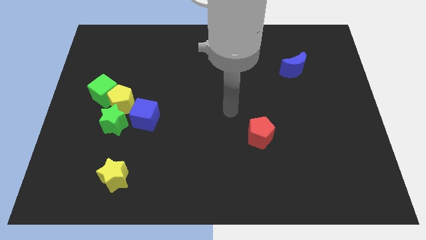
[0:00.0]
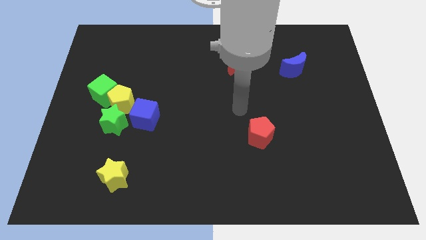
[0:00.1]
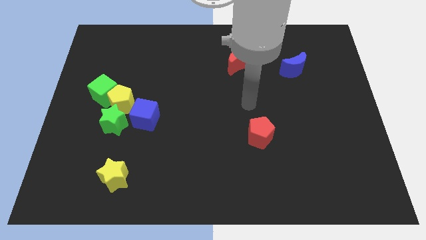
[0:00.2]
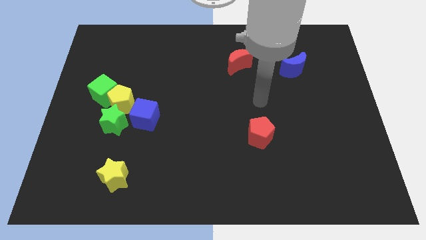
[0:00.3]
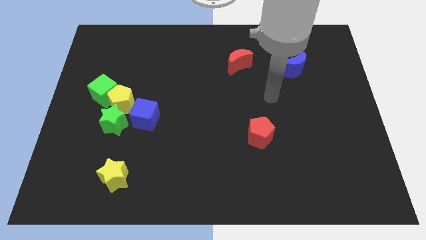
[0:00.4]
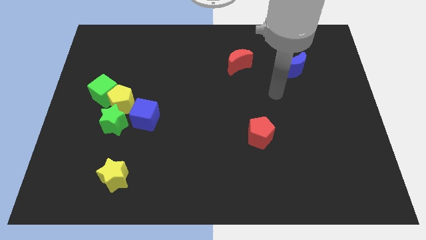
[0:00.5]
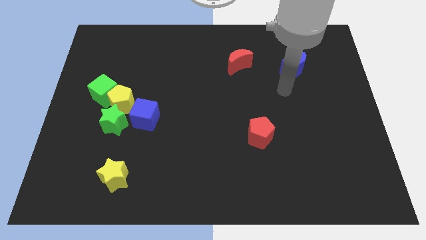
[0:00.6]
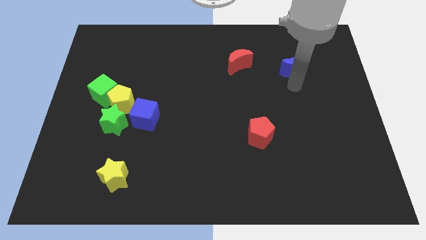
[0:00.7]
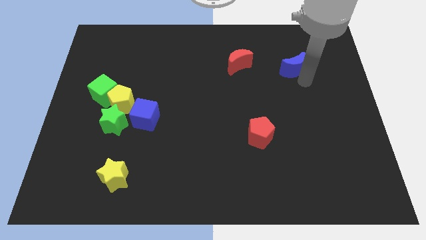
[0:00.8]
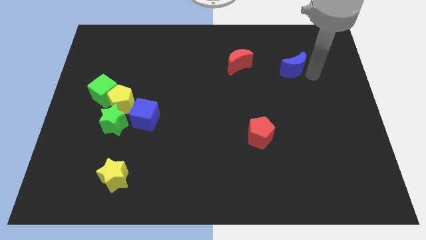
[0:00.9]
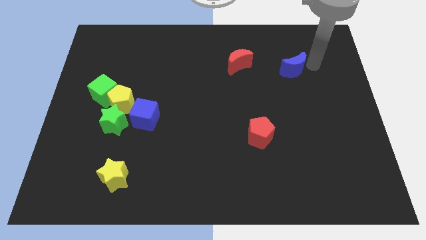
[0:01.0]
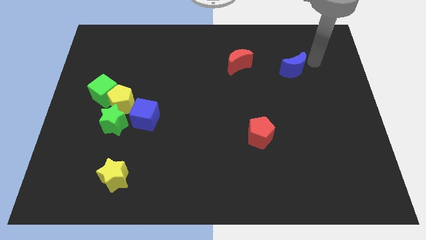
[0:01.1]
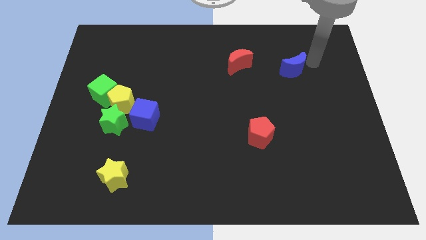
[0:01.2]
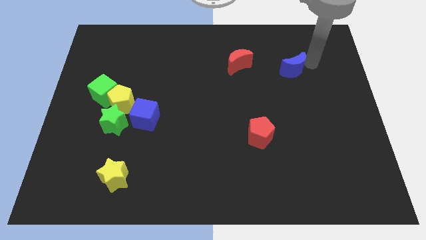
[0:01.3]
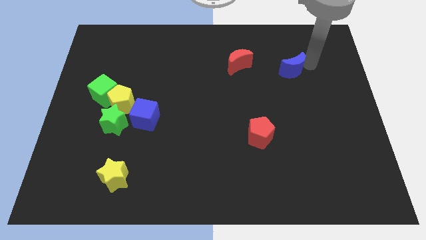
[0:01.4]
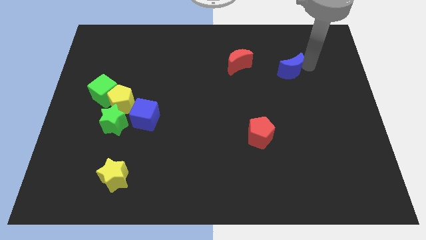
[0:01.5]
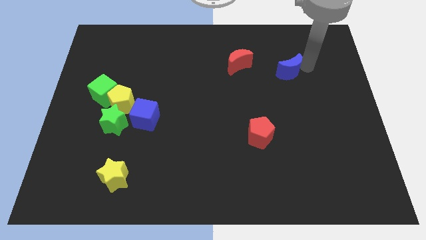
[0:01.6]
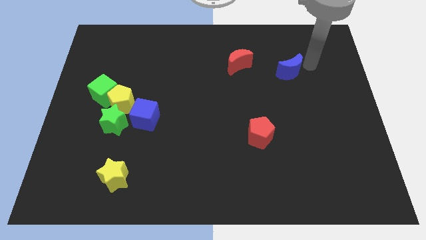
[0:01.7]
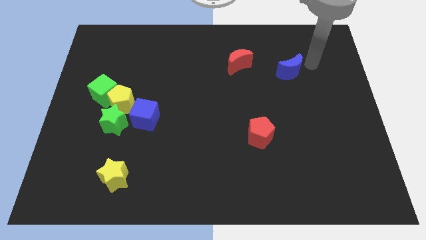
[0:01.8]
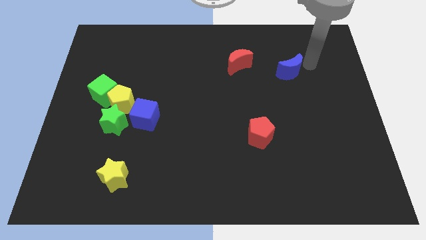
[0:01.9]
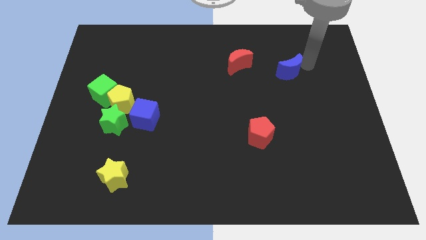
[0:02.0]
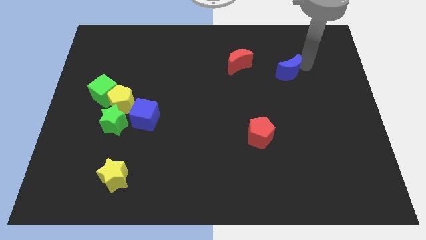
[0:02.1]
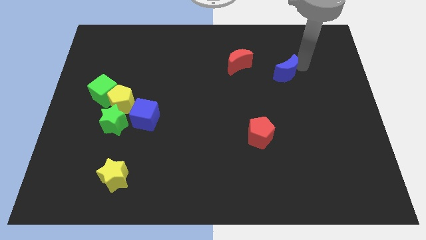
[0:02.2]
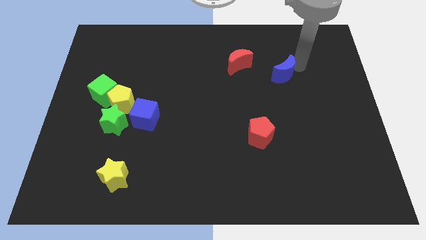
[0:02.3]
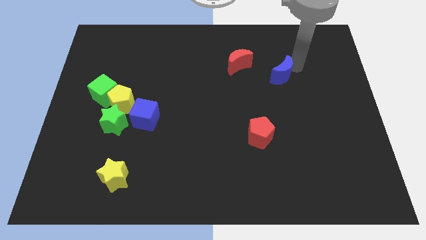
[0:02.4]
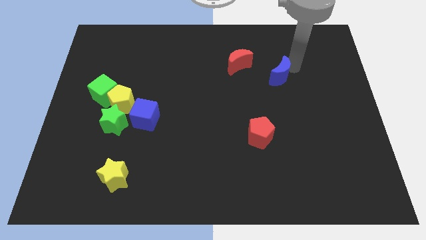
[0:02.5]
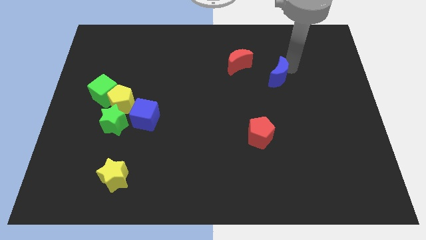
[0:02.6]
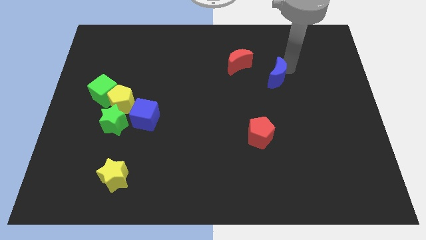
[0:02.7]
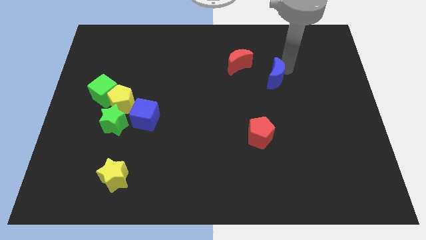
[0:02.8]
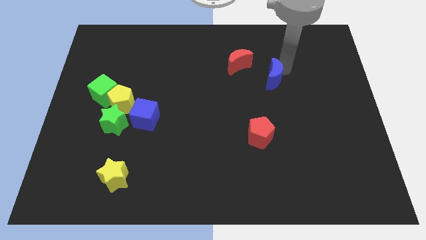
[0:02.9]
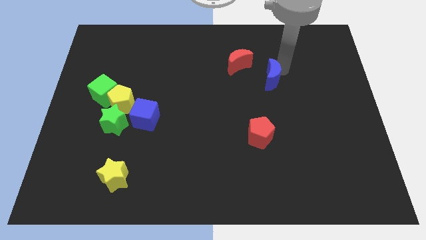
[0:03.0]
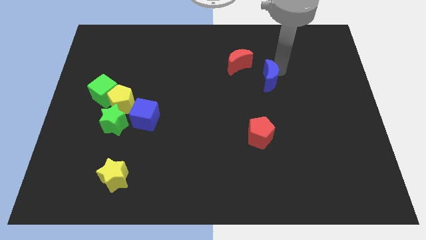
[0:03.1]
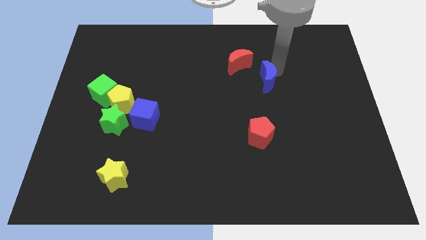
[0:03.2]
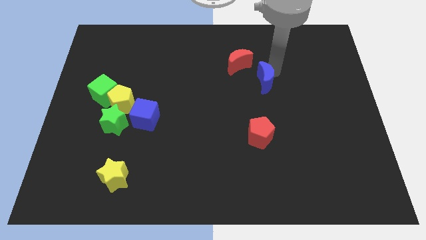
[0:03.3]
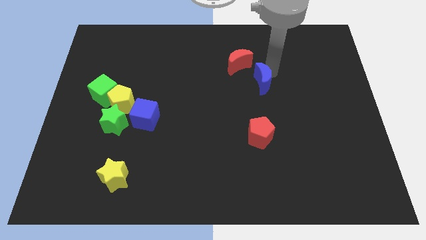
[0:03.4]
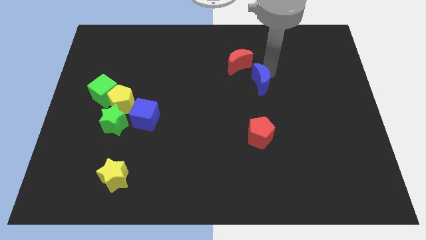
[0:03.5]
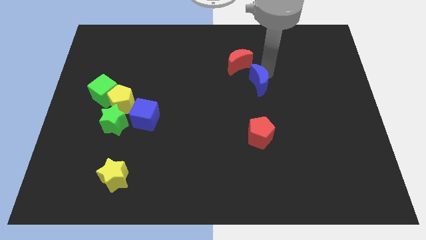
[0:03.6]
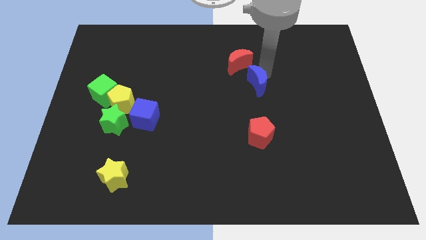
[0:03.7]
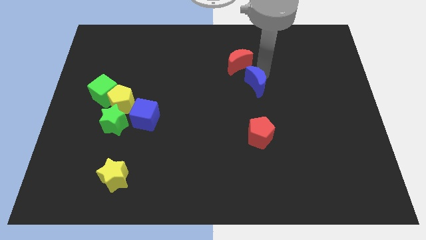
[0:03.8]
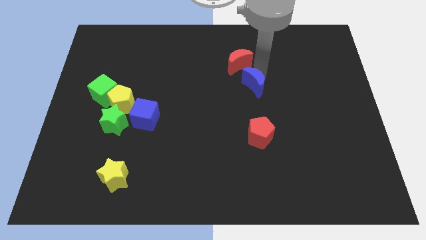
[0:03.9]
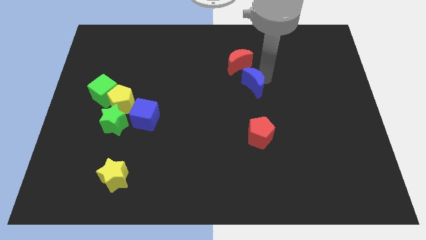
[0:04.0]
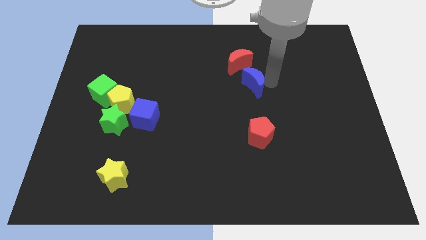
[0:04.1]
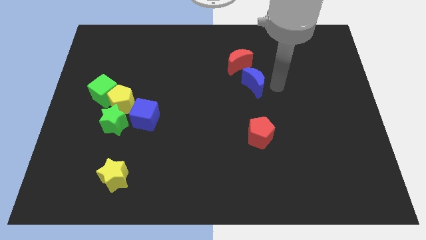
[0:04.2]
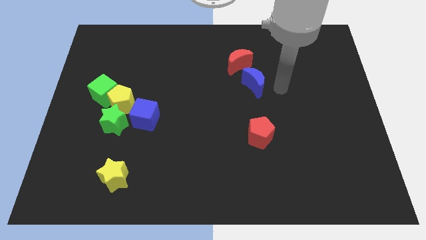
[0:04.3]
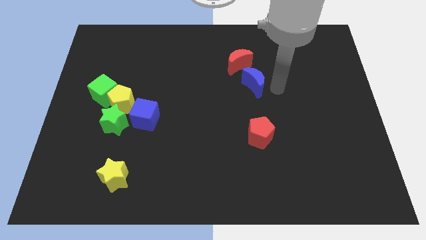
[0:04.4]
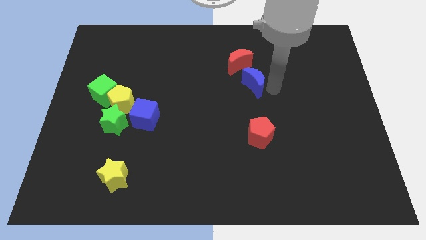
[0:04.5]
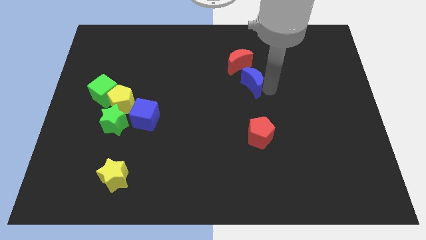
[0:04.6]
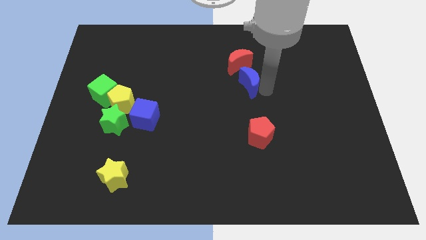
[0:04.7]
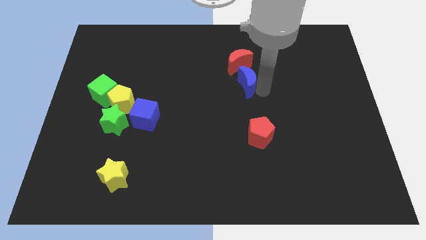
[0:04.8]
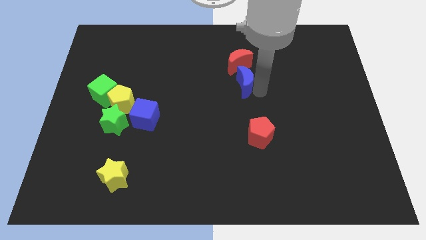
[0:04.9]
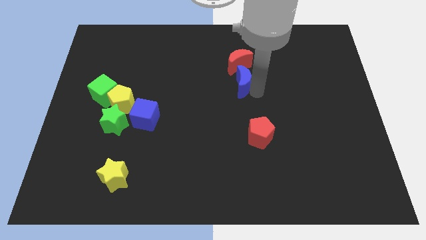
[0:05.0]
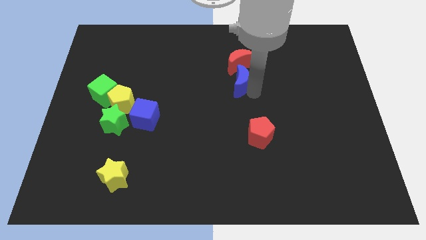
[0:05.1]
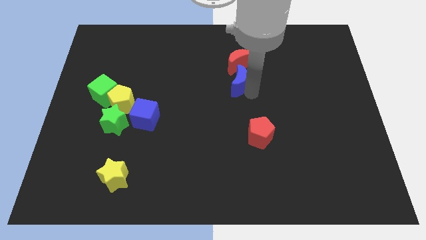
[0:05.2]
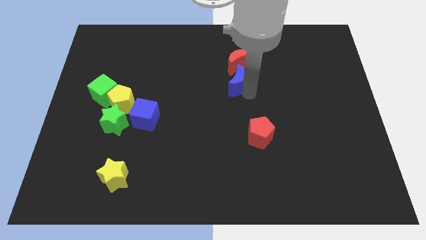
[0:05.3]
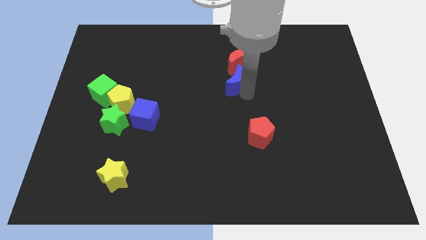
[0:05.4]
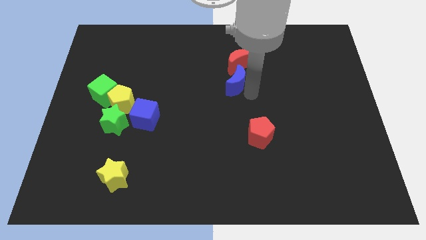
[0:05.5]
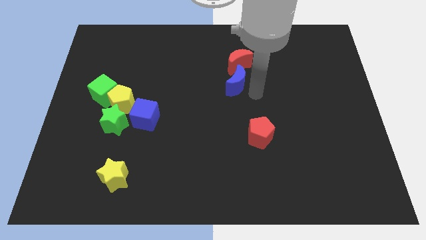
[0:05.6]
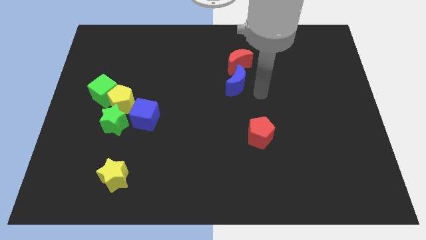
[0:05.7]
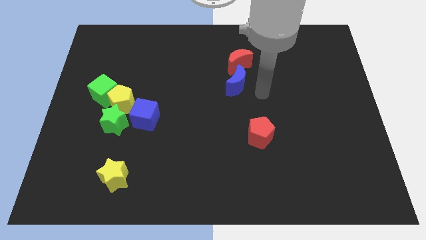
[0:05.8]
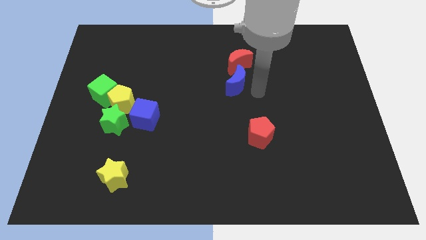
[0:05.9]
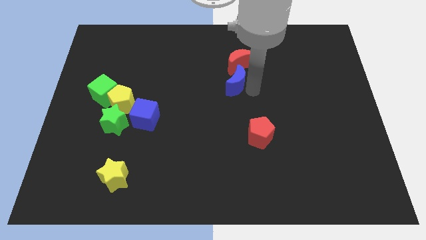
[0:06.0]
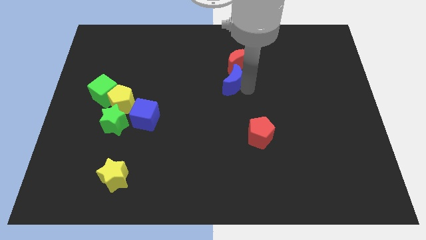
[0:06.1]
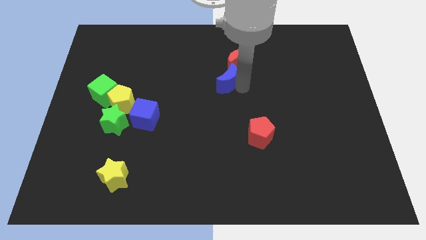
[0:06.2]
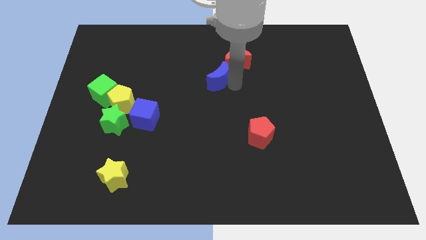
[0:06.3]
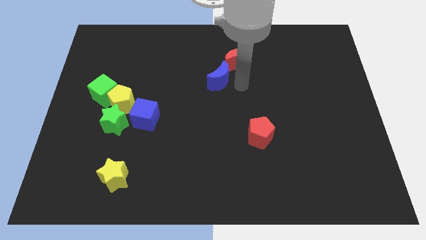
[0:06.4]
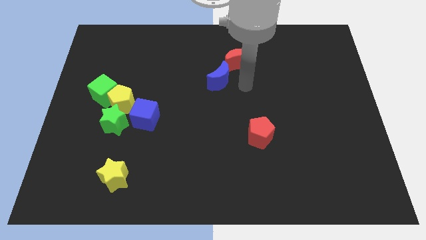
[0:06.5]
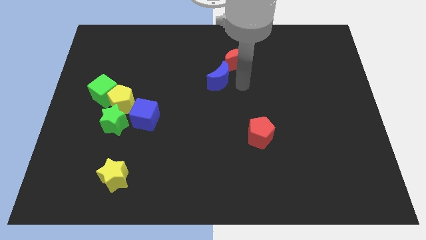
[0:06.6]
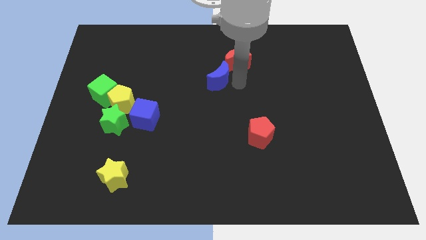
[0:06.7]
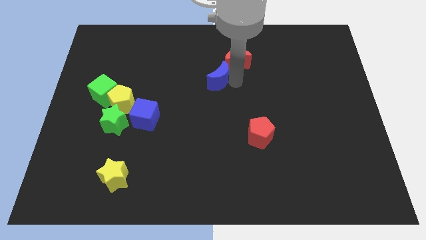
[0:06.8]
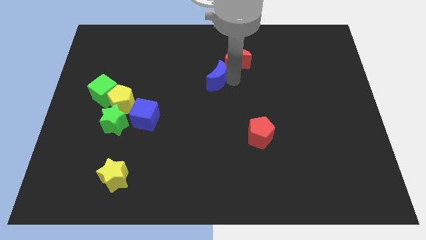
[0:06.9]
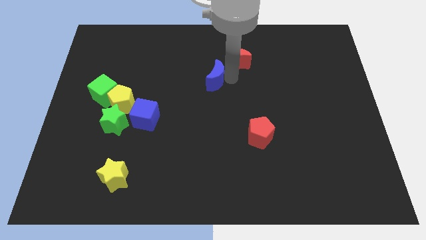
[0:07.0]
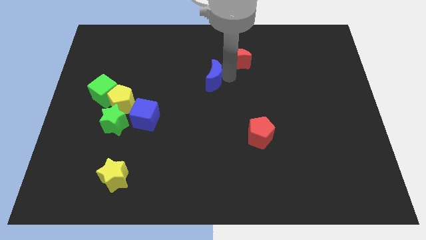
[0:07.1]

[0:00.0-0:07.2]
move the blue moon left

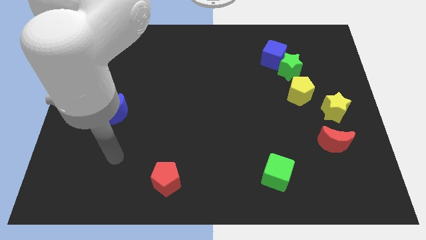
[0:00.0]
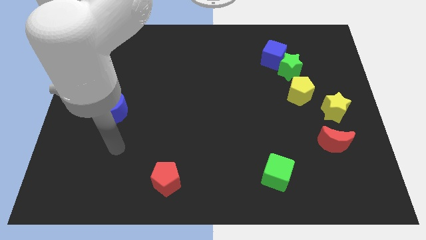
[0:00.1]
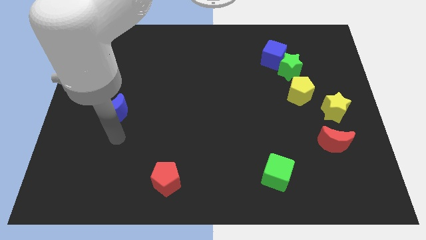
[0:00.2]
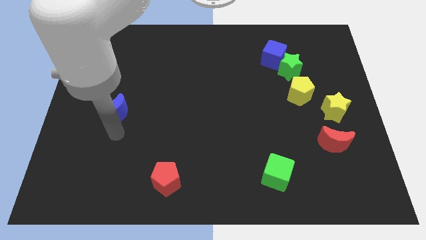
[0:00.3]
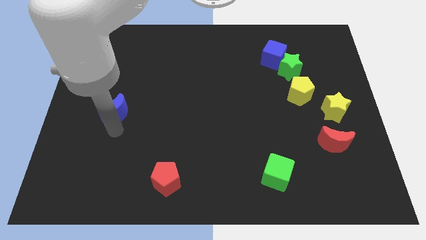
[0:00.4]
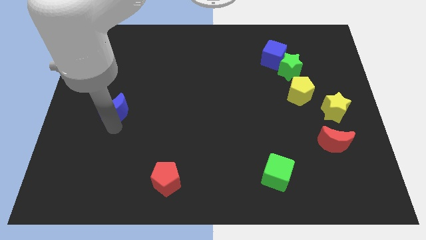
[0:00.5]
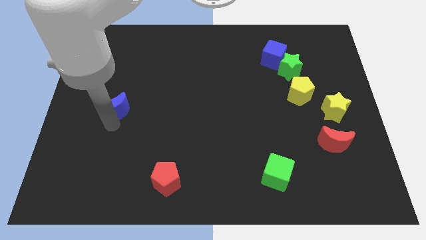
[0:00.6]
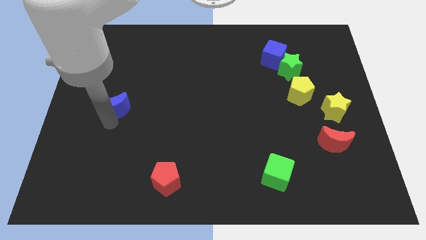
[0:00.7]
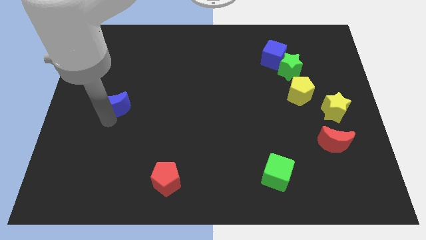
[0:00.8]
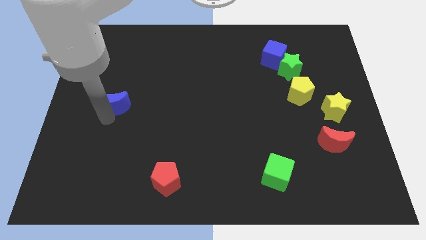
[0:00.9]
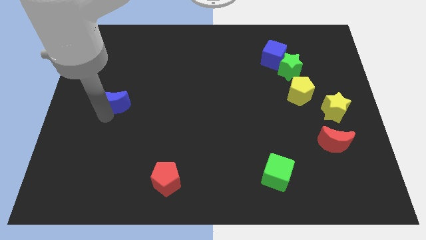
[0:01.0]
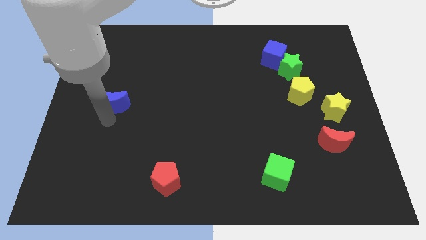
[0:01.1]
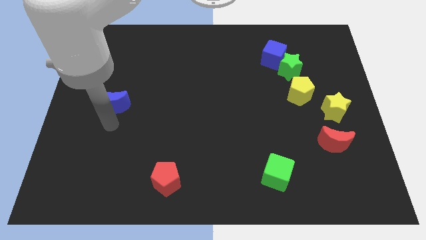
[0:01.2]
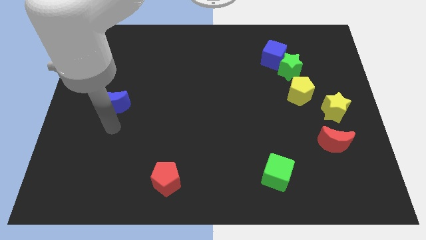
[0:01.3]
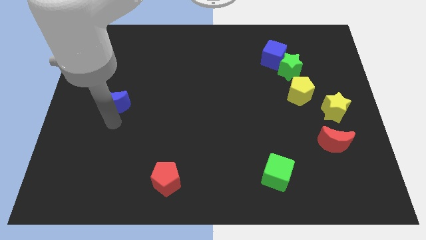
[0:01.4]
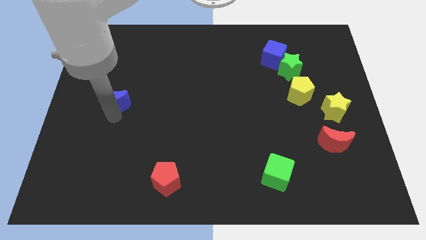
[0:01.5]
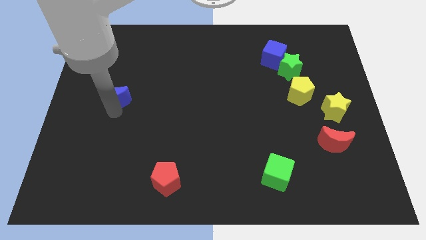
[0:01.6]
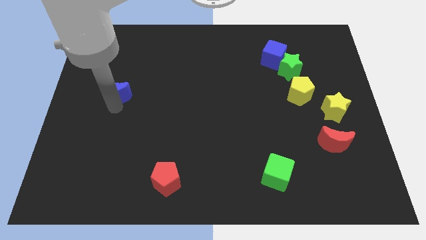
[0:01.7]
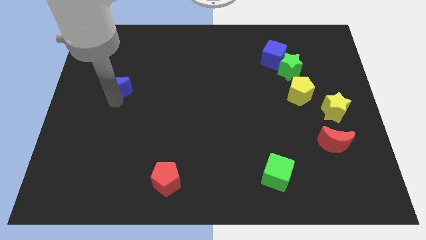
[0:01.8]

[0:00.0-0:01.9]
slide the blue moon a little up
